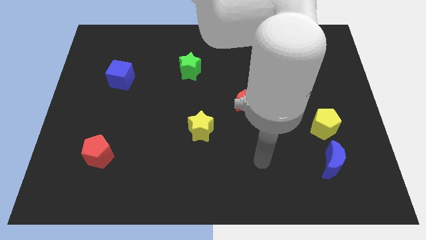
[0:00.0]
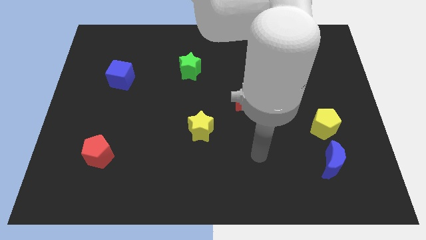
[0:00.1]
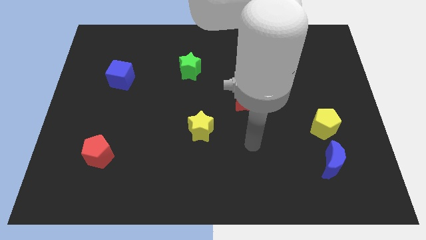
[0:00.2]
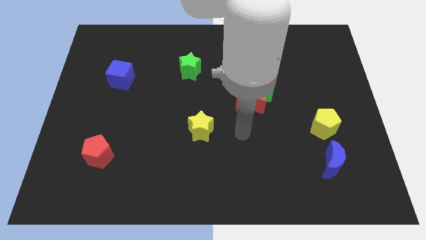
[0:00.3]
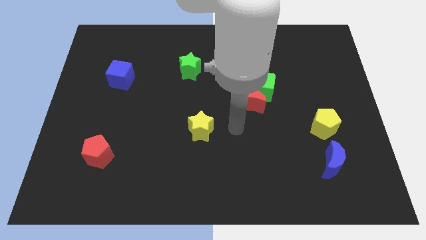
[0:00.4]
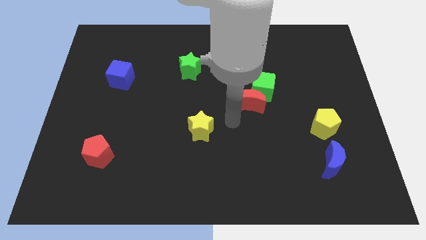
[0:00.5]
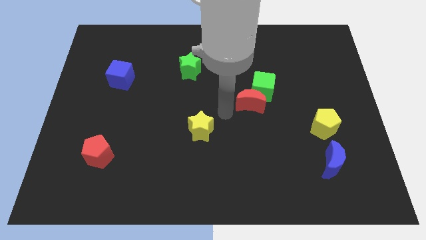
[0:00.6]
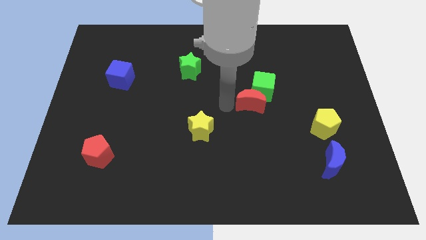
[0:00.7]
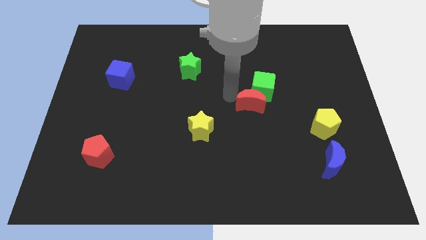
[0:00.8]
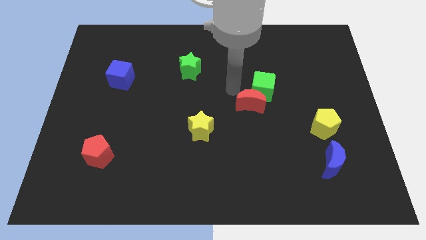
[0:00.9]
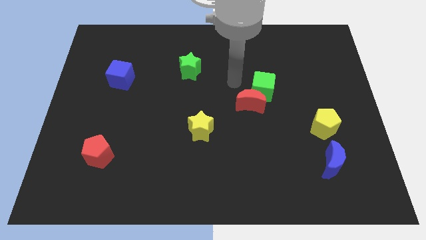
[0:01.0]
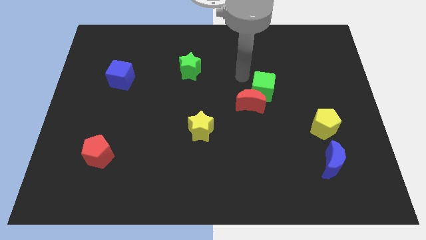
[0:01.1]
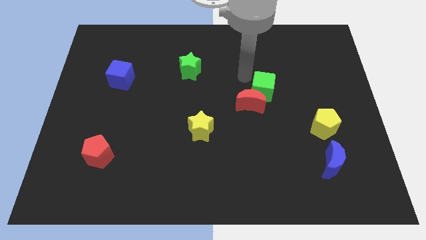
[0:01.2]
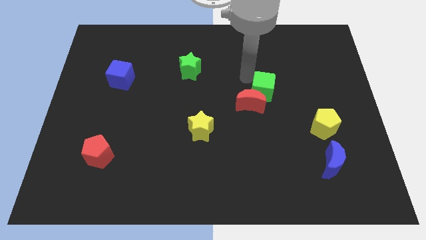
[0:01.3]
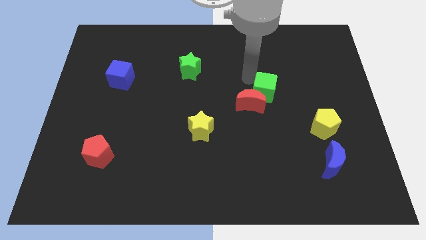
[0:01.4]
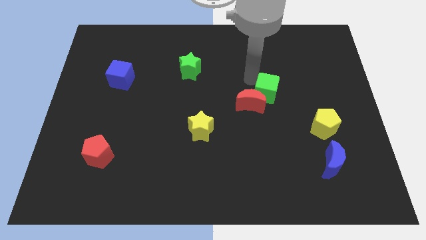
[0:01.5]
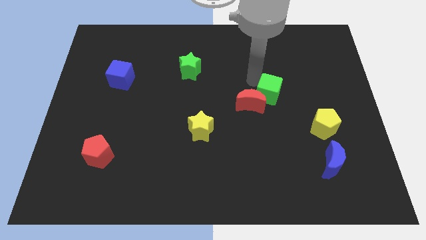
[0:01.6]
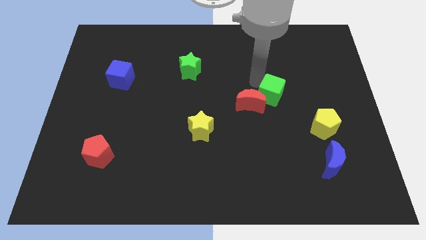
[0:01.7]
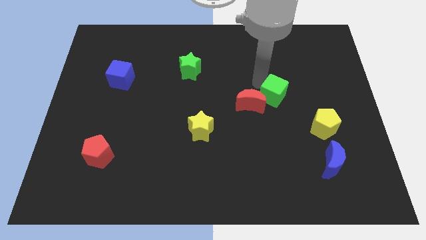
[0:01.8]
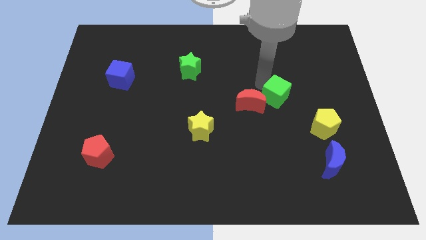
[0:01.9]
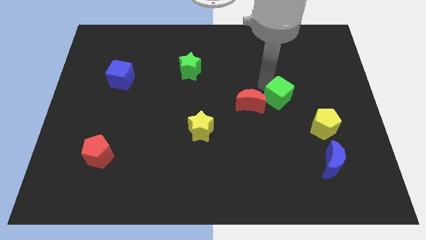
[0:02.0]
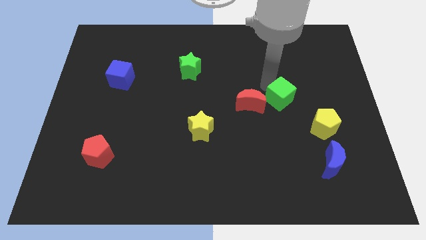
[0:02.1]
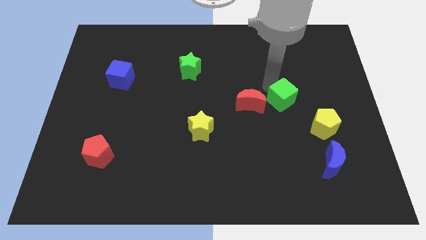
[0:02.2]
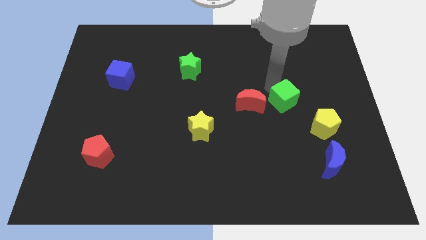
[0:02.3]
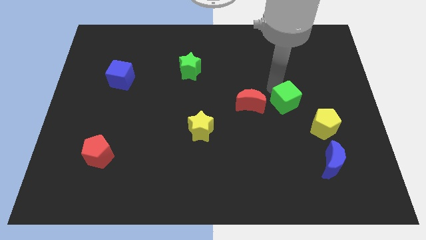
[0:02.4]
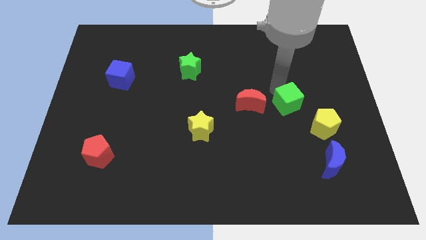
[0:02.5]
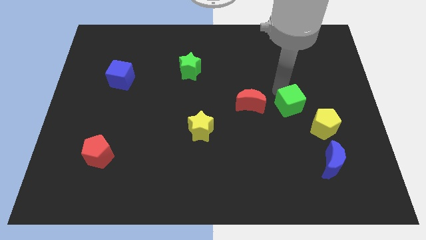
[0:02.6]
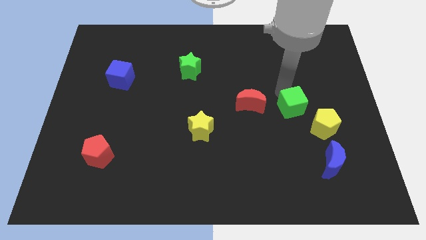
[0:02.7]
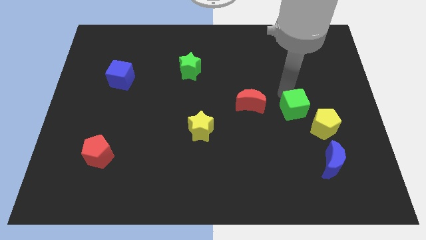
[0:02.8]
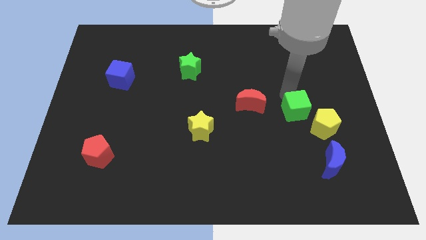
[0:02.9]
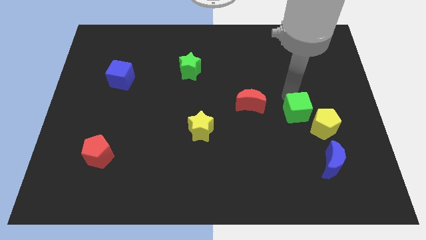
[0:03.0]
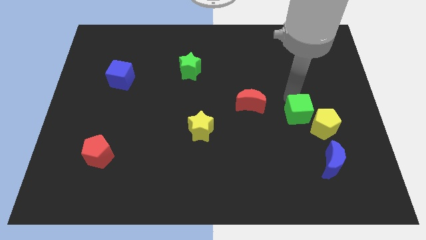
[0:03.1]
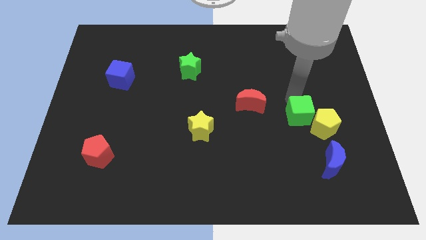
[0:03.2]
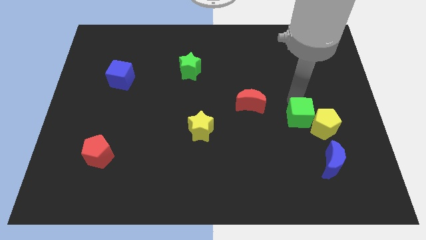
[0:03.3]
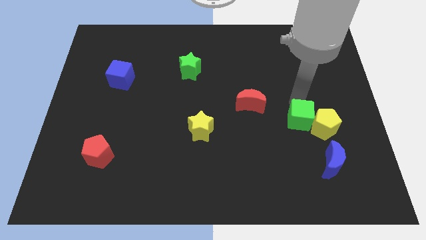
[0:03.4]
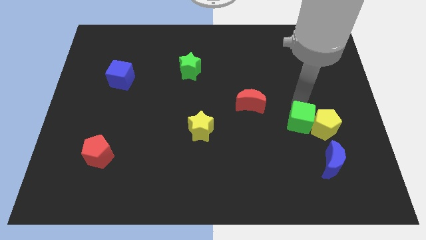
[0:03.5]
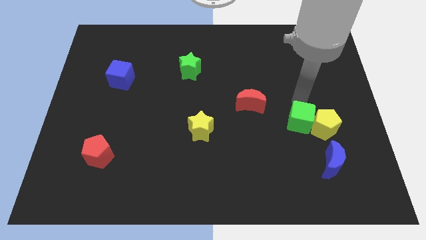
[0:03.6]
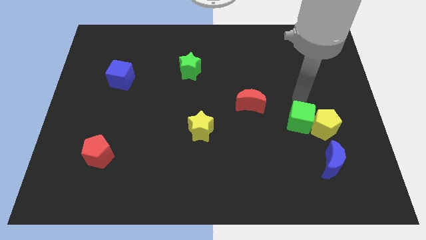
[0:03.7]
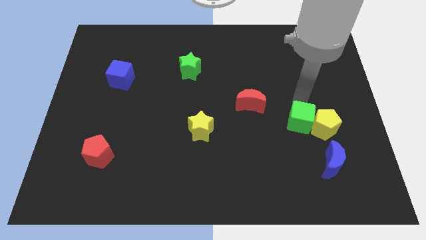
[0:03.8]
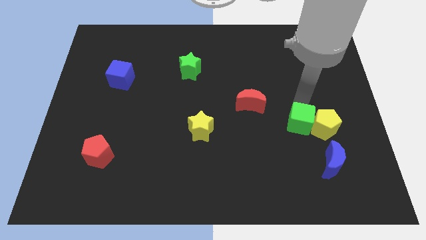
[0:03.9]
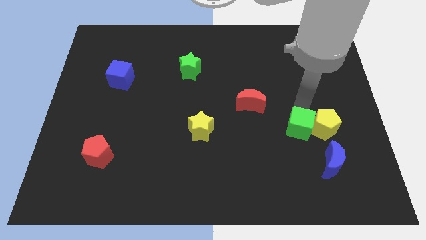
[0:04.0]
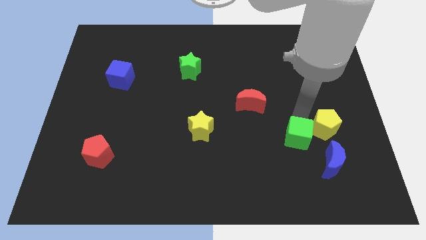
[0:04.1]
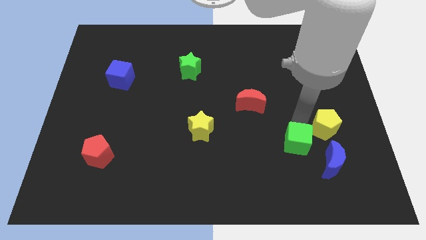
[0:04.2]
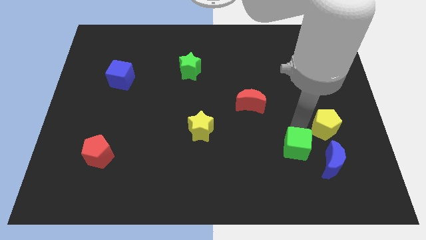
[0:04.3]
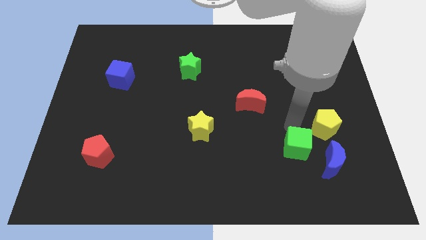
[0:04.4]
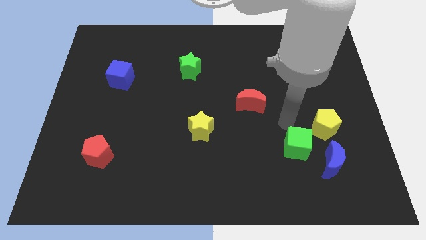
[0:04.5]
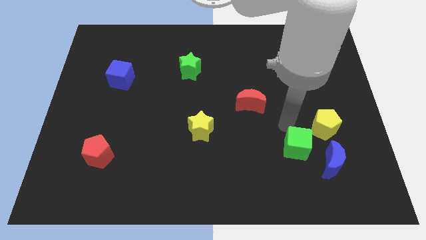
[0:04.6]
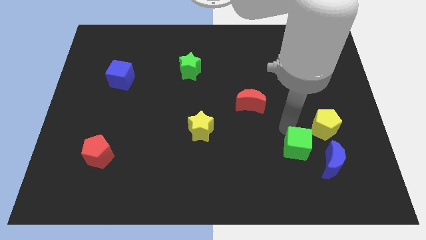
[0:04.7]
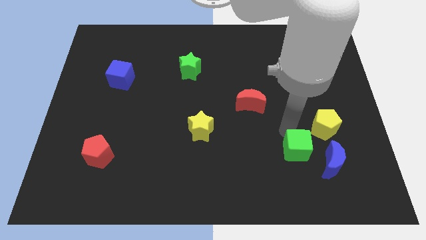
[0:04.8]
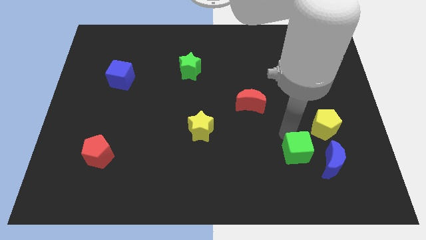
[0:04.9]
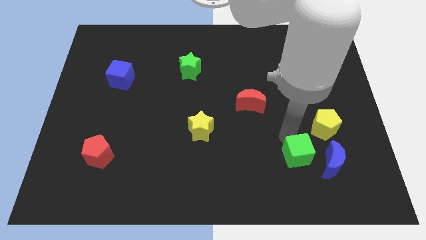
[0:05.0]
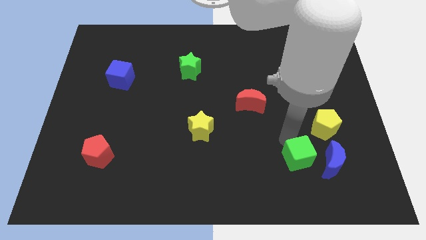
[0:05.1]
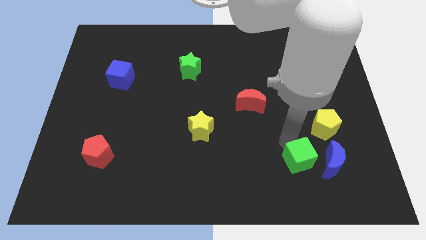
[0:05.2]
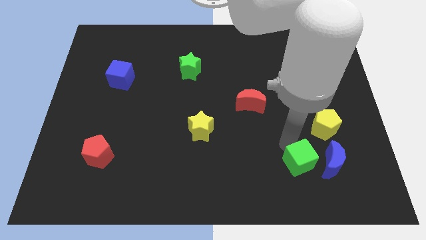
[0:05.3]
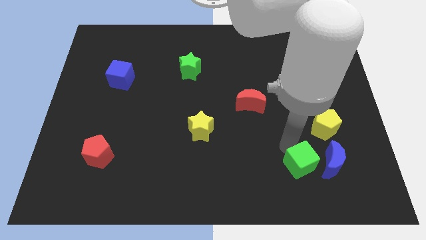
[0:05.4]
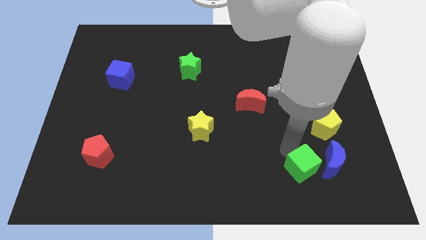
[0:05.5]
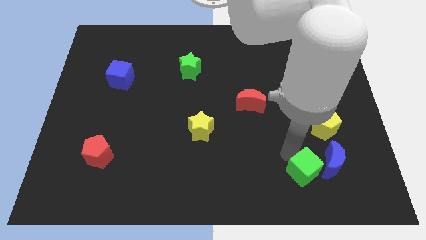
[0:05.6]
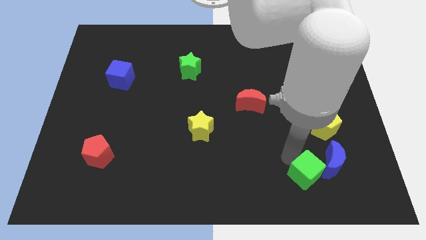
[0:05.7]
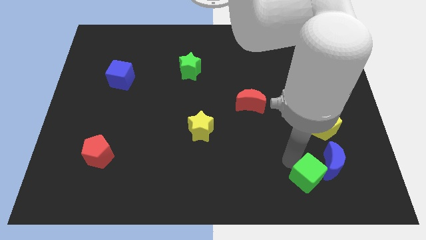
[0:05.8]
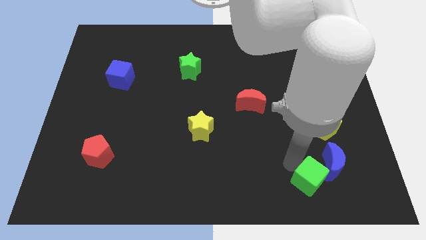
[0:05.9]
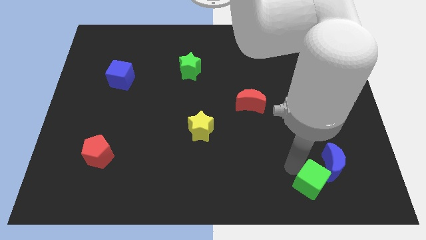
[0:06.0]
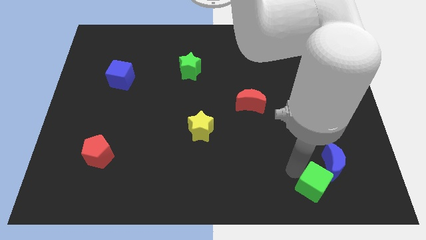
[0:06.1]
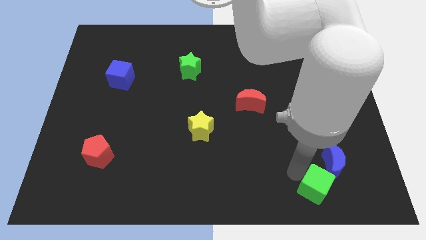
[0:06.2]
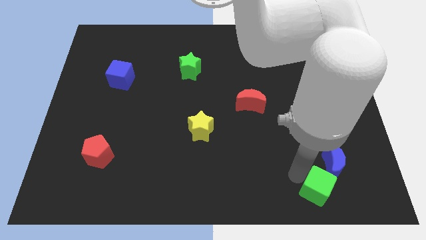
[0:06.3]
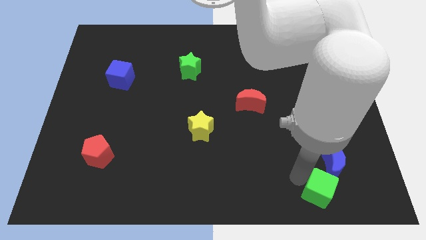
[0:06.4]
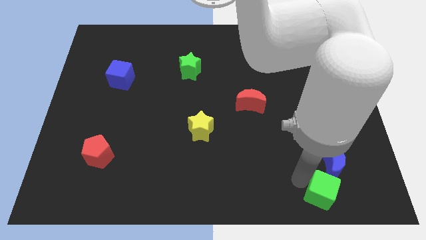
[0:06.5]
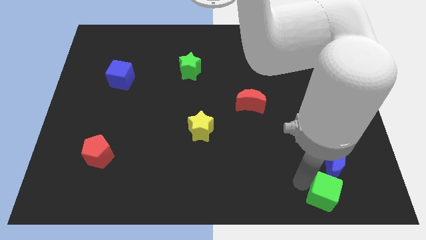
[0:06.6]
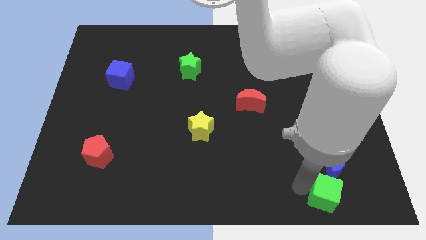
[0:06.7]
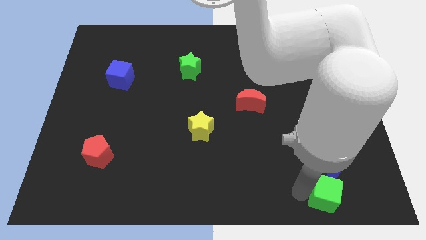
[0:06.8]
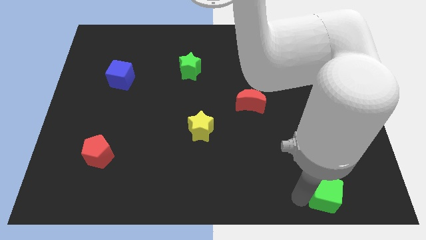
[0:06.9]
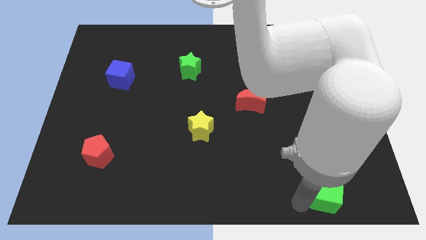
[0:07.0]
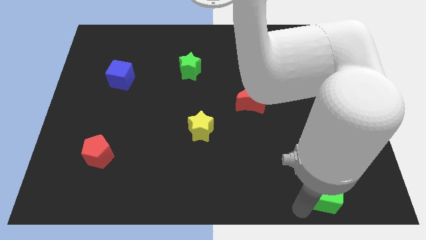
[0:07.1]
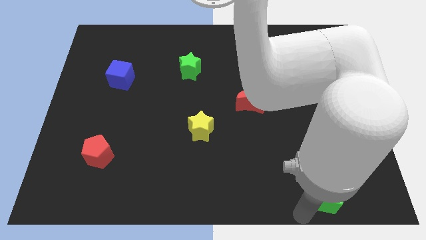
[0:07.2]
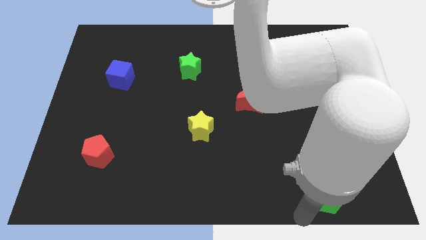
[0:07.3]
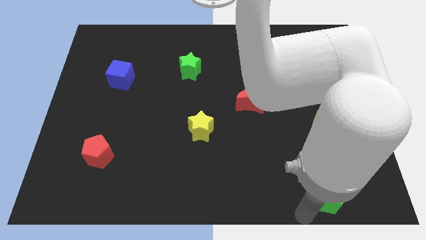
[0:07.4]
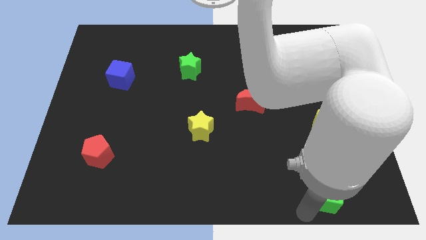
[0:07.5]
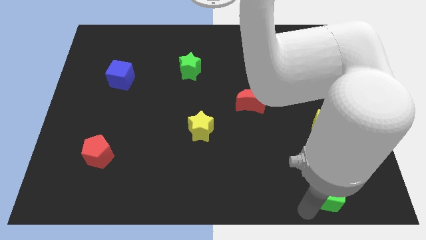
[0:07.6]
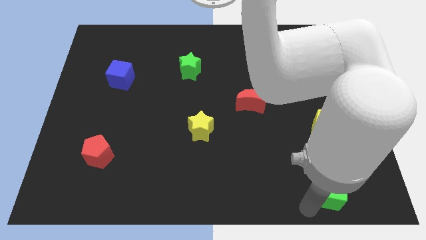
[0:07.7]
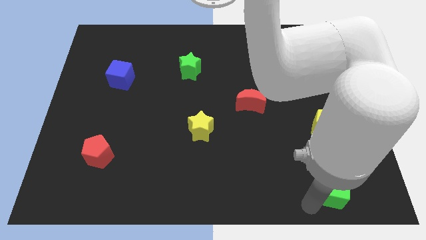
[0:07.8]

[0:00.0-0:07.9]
move the green cube to the bottom of the yellow pentagon
